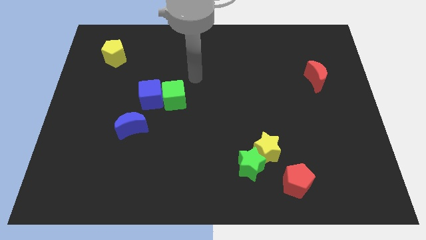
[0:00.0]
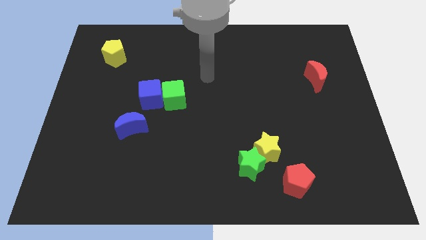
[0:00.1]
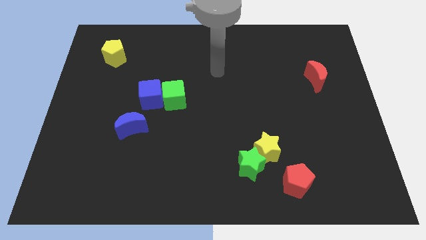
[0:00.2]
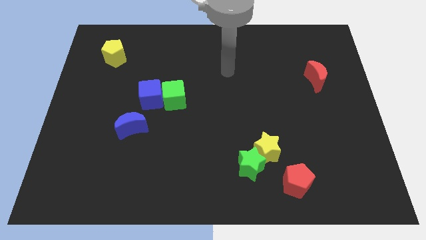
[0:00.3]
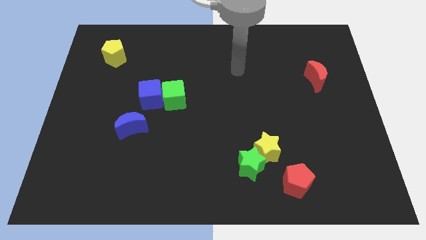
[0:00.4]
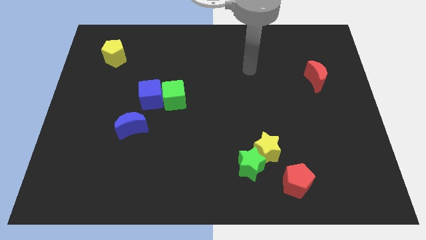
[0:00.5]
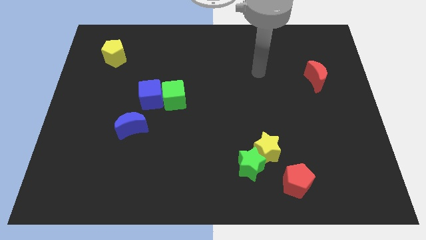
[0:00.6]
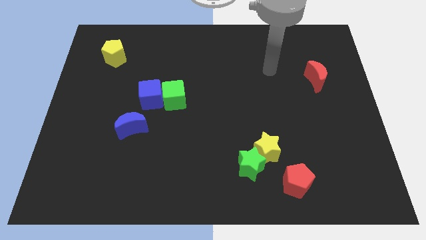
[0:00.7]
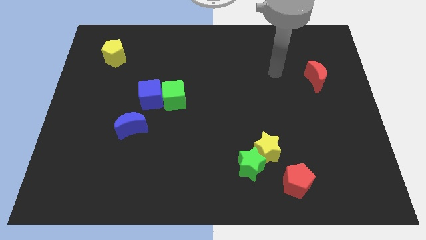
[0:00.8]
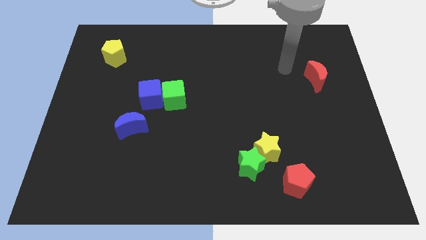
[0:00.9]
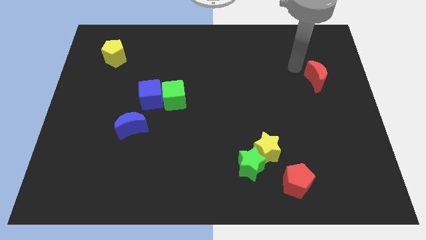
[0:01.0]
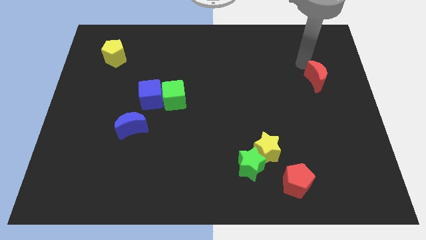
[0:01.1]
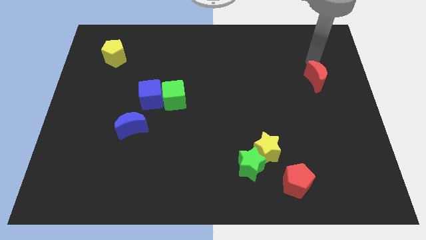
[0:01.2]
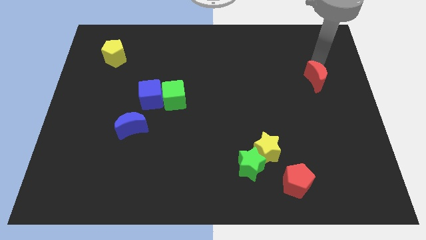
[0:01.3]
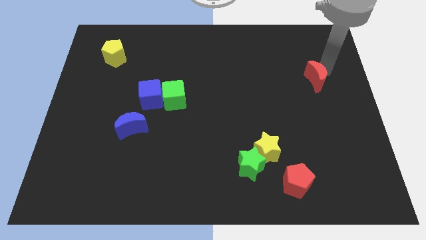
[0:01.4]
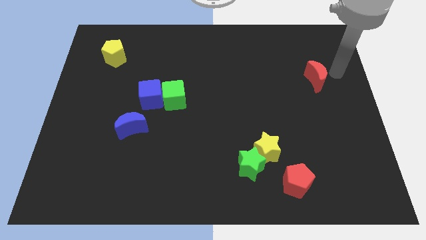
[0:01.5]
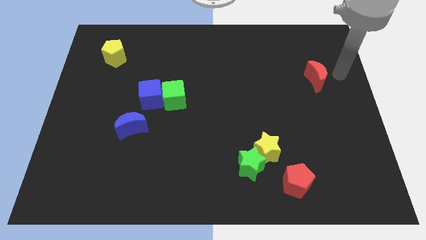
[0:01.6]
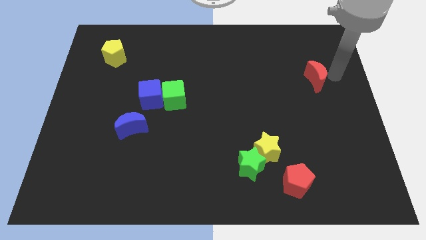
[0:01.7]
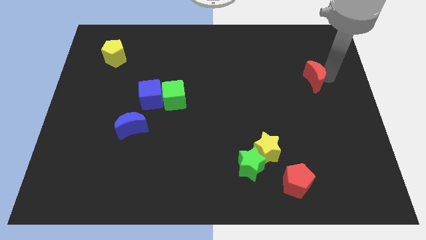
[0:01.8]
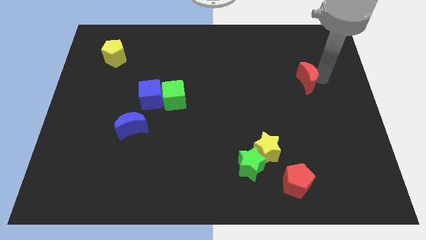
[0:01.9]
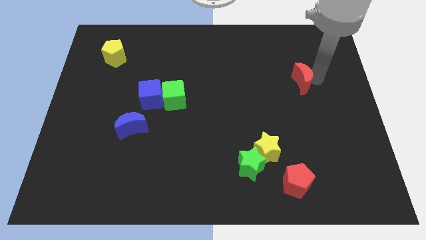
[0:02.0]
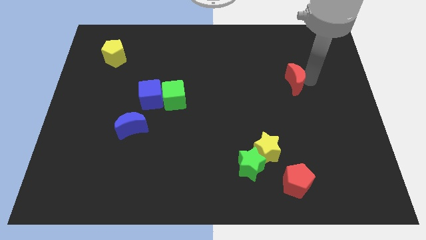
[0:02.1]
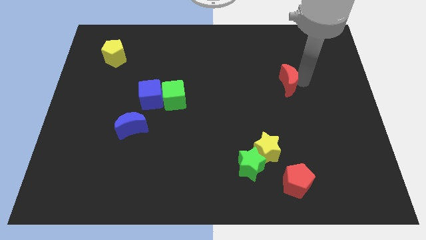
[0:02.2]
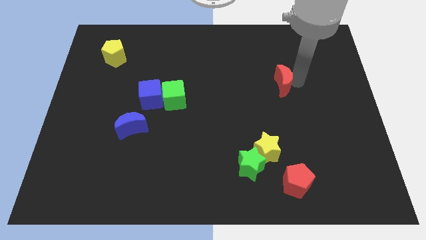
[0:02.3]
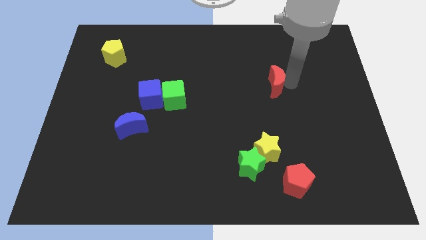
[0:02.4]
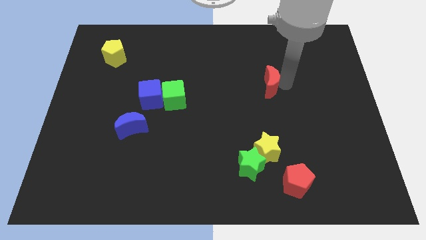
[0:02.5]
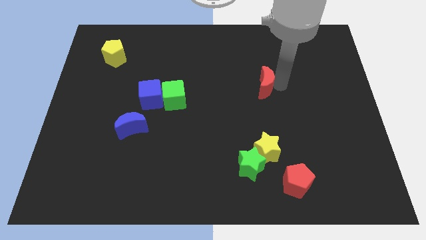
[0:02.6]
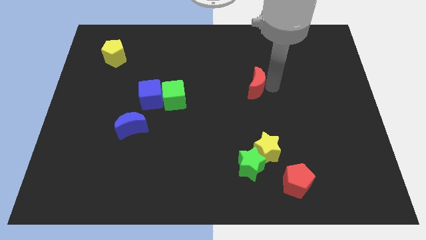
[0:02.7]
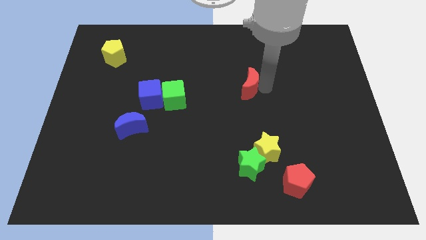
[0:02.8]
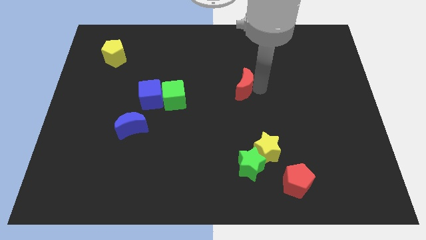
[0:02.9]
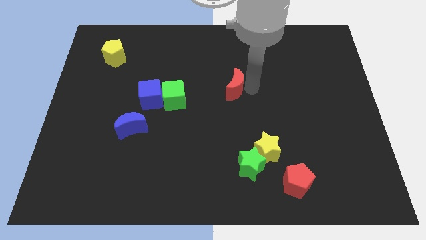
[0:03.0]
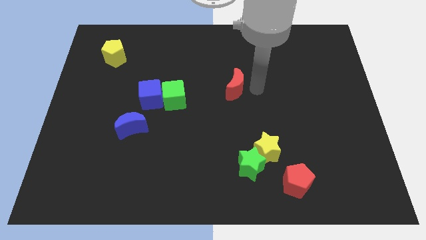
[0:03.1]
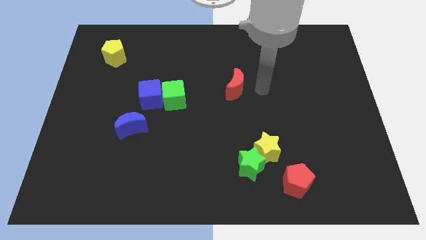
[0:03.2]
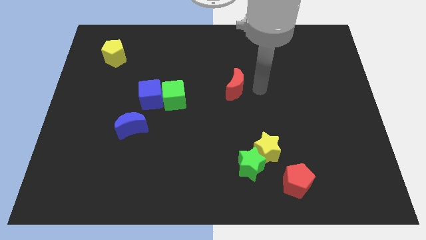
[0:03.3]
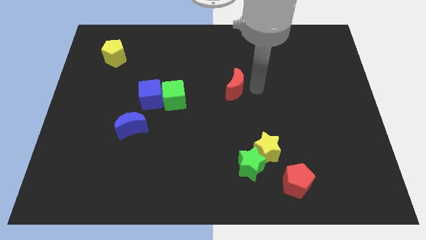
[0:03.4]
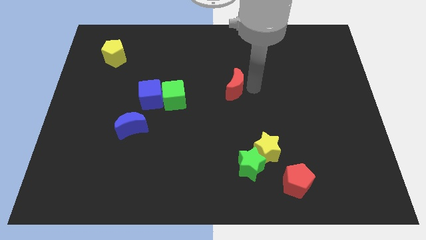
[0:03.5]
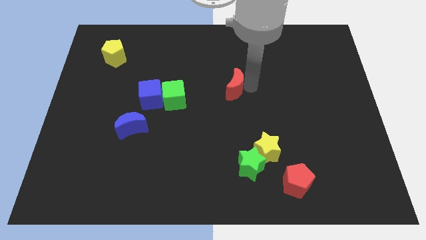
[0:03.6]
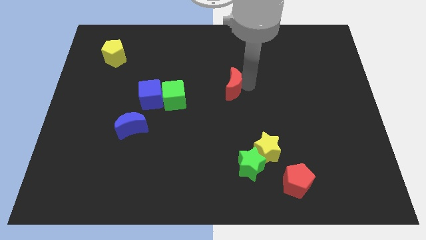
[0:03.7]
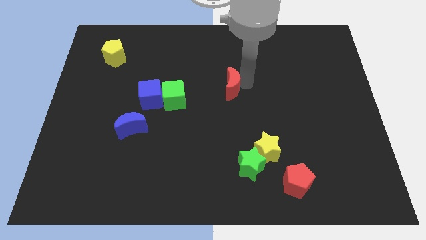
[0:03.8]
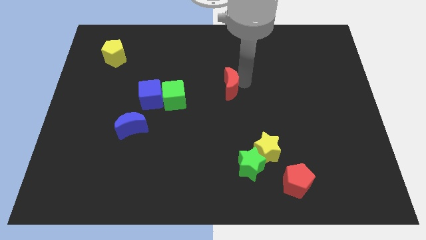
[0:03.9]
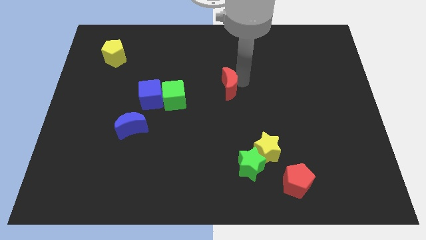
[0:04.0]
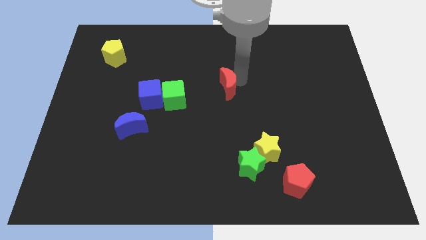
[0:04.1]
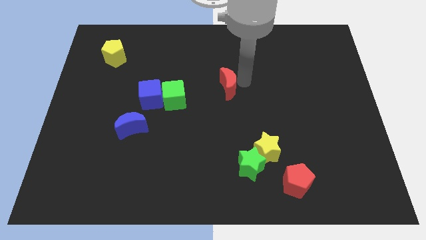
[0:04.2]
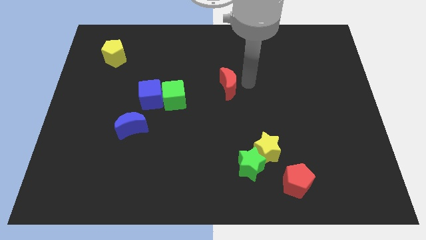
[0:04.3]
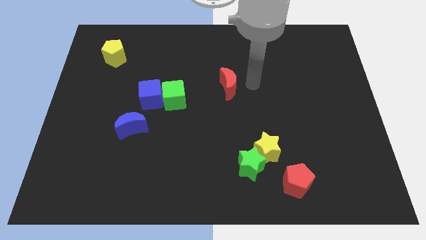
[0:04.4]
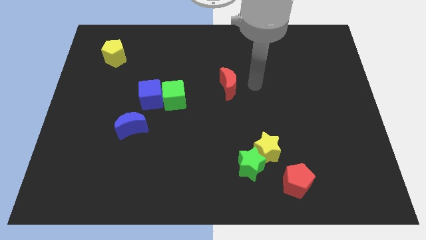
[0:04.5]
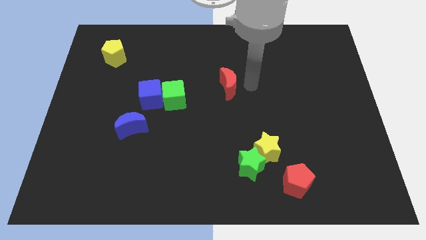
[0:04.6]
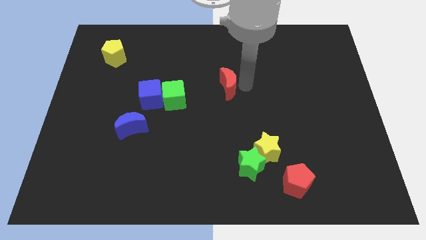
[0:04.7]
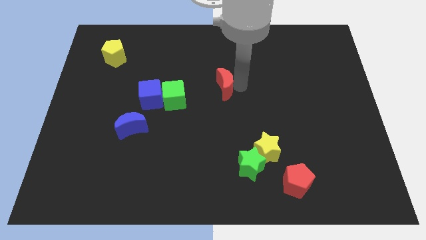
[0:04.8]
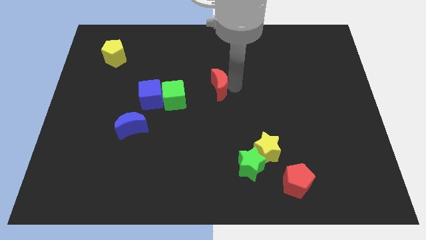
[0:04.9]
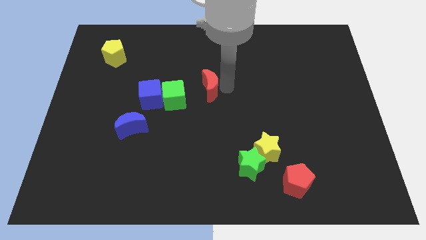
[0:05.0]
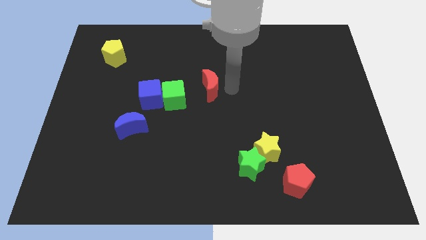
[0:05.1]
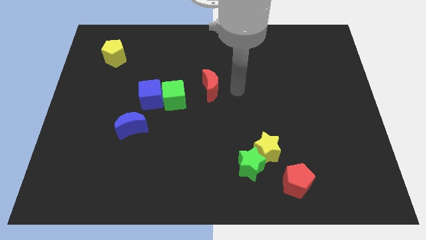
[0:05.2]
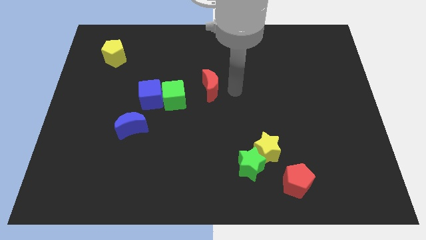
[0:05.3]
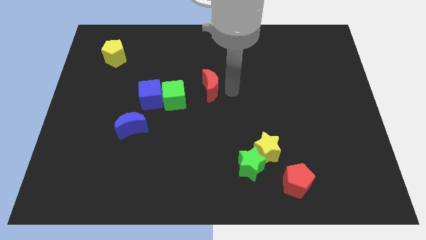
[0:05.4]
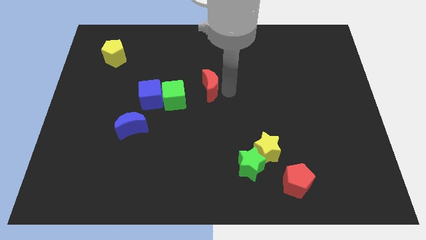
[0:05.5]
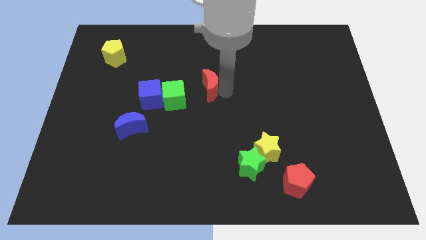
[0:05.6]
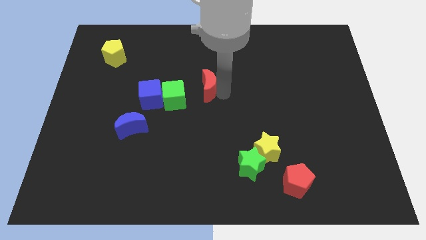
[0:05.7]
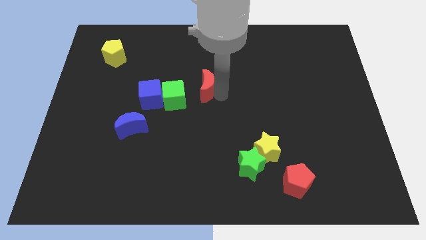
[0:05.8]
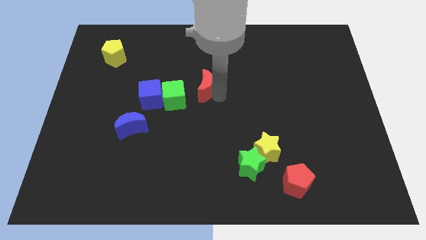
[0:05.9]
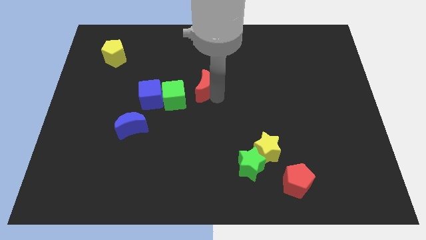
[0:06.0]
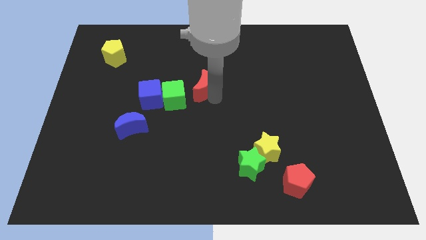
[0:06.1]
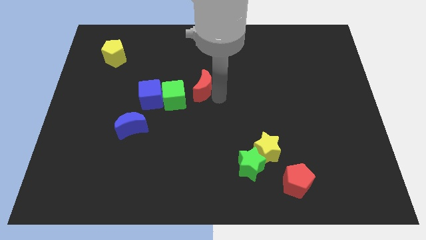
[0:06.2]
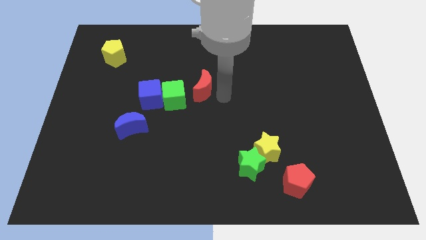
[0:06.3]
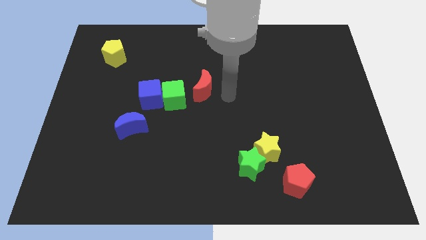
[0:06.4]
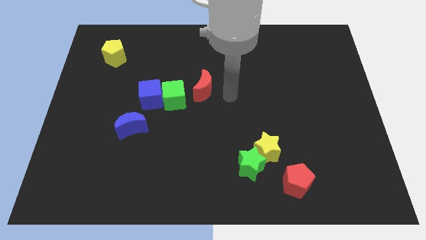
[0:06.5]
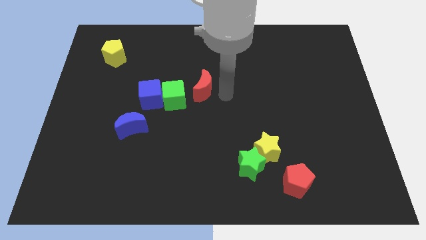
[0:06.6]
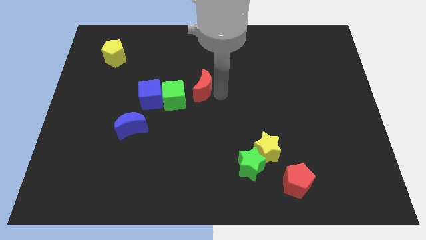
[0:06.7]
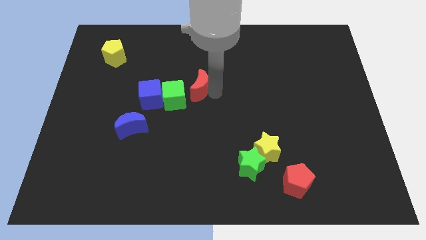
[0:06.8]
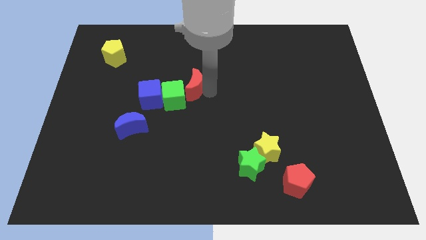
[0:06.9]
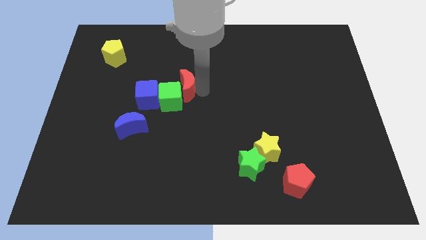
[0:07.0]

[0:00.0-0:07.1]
slide the red moon to the top right of the blue cube
